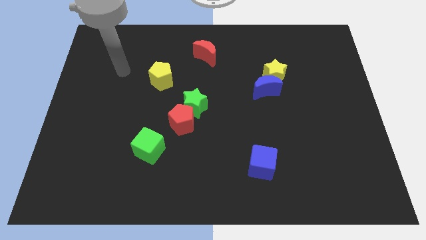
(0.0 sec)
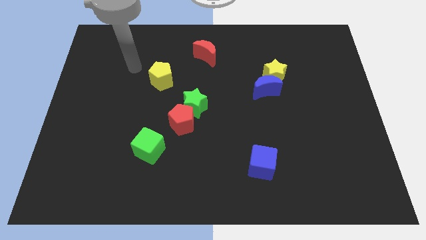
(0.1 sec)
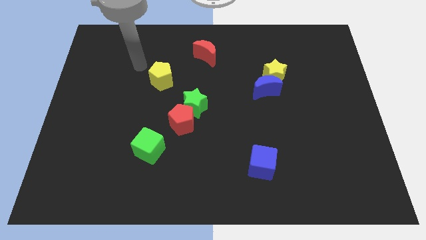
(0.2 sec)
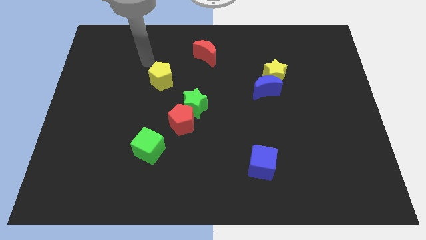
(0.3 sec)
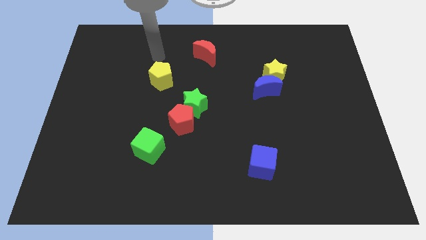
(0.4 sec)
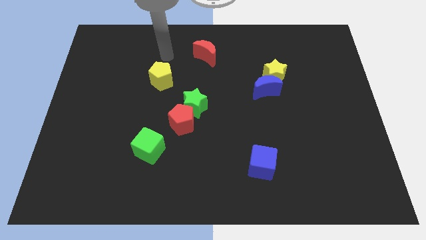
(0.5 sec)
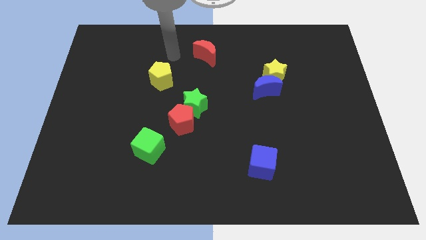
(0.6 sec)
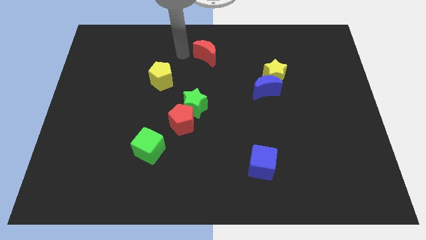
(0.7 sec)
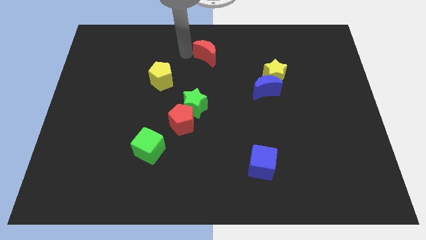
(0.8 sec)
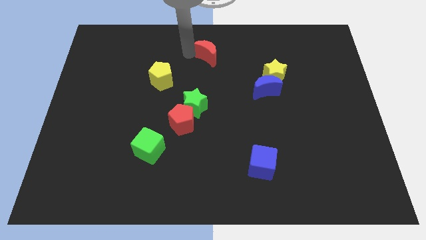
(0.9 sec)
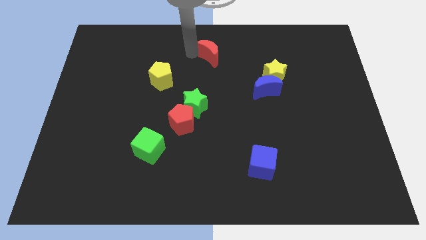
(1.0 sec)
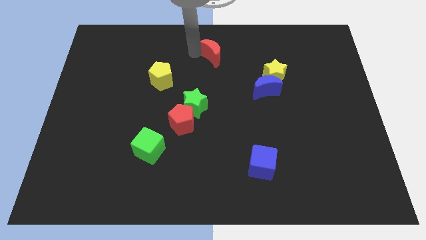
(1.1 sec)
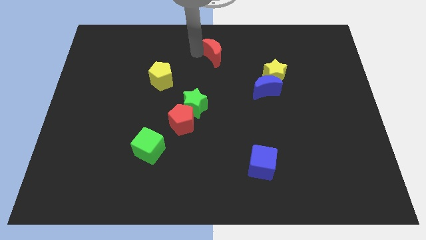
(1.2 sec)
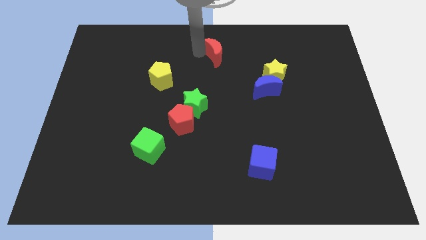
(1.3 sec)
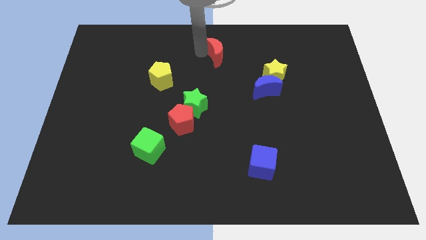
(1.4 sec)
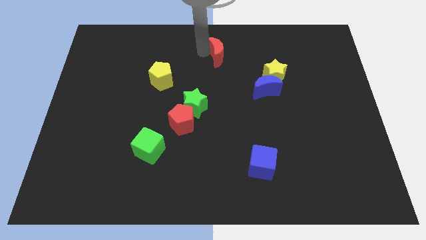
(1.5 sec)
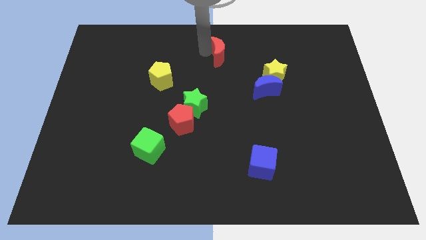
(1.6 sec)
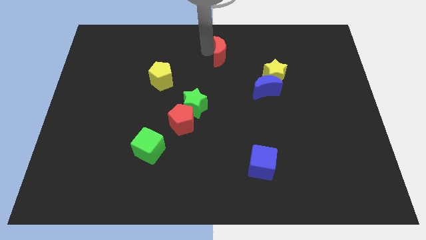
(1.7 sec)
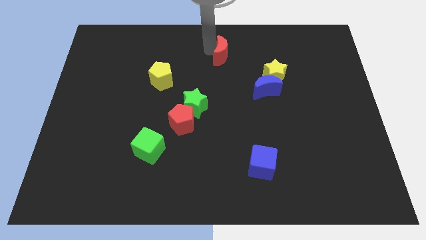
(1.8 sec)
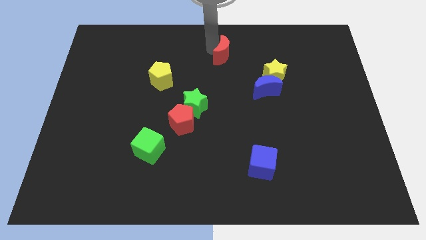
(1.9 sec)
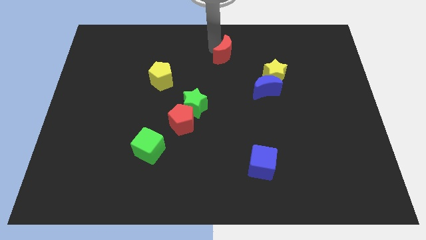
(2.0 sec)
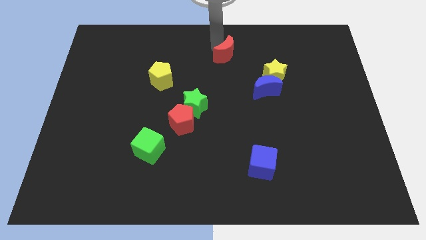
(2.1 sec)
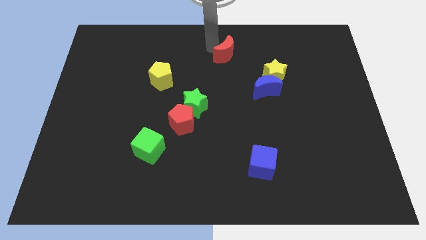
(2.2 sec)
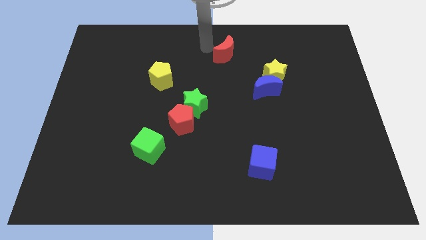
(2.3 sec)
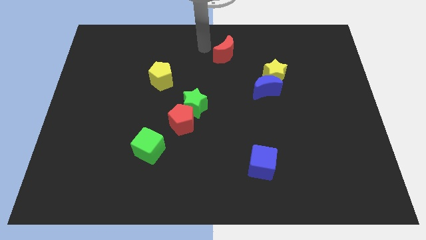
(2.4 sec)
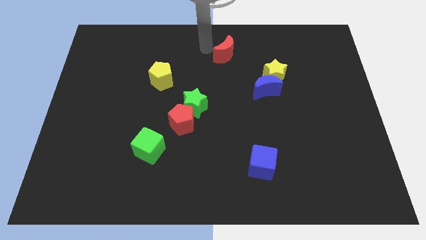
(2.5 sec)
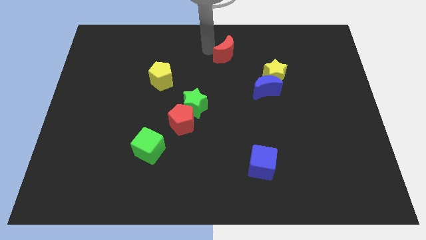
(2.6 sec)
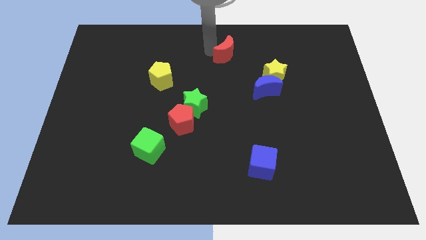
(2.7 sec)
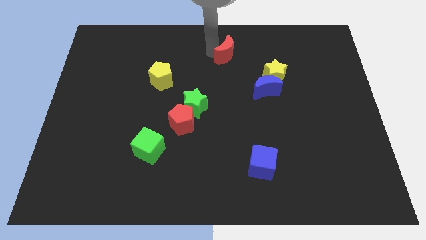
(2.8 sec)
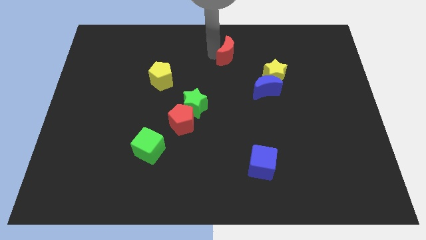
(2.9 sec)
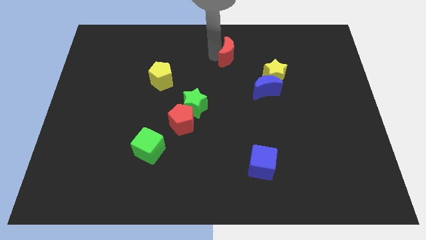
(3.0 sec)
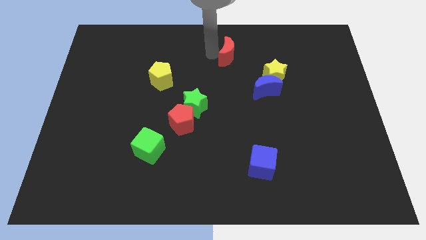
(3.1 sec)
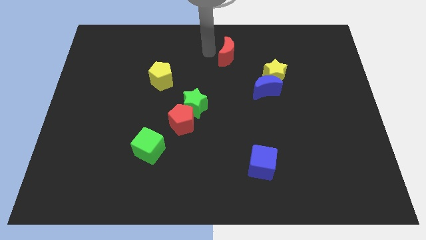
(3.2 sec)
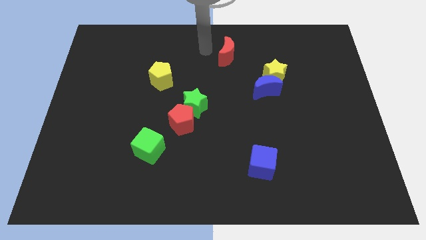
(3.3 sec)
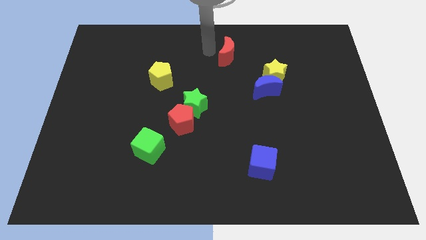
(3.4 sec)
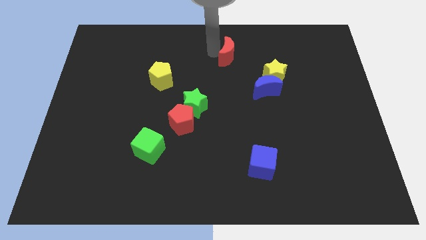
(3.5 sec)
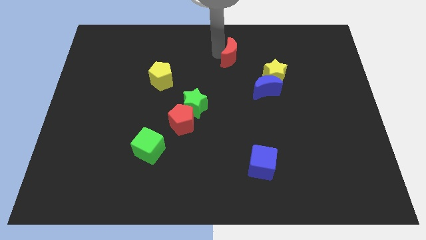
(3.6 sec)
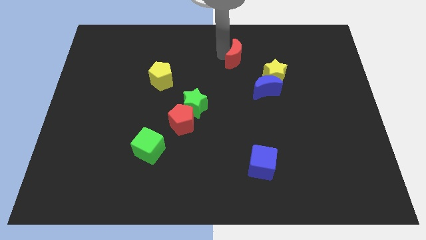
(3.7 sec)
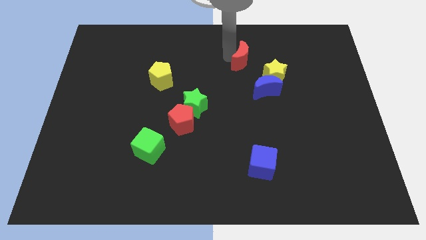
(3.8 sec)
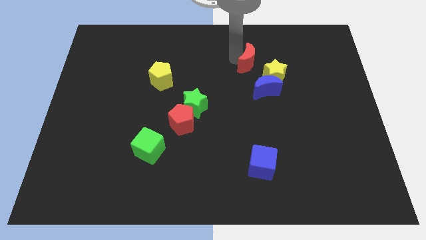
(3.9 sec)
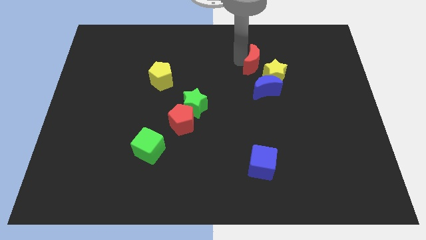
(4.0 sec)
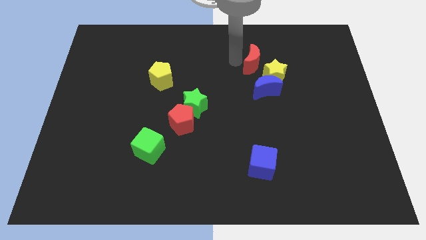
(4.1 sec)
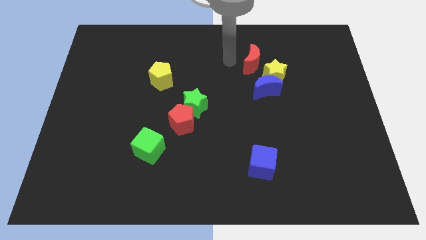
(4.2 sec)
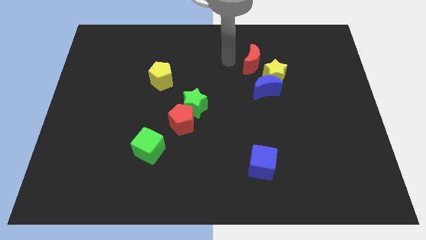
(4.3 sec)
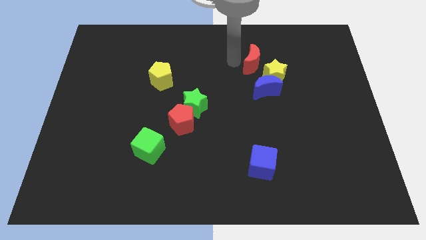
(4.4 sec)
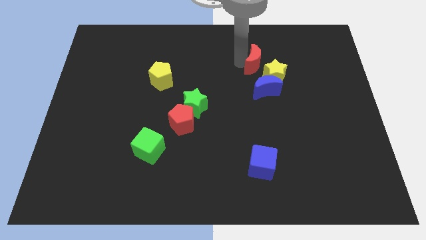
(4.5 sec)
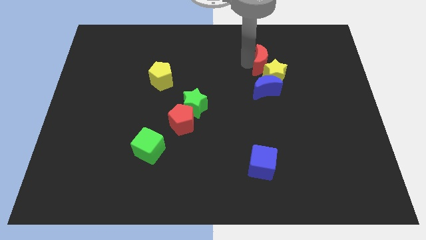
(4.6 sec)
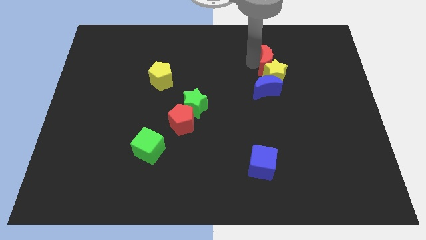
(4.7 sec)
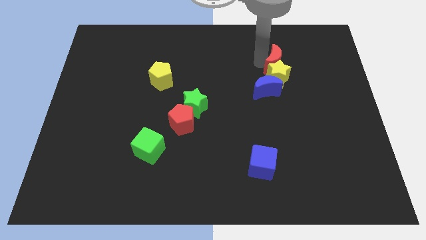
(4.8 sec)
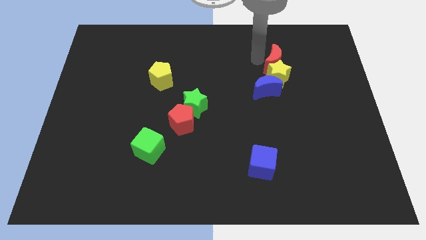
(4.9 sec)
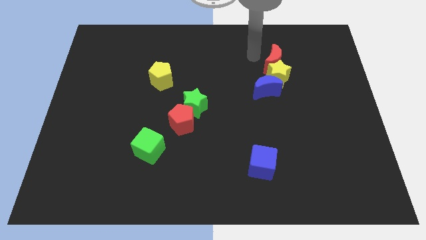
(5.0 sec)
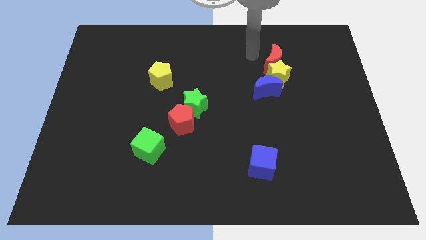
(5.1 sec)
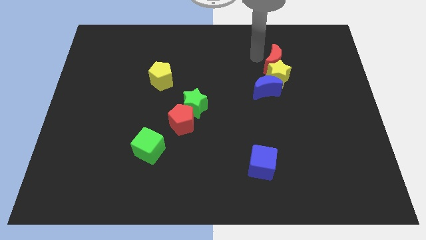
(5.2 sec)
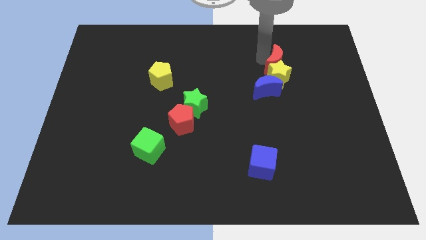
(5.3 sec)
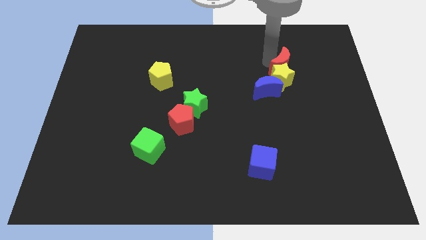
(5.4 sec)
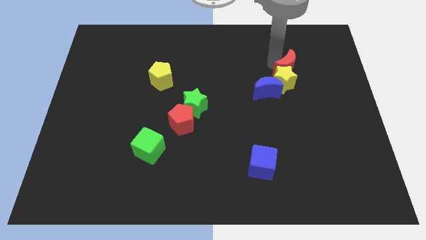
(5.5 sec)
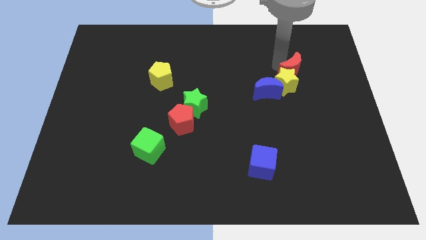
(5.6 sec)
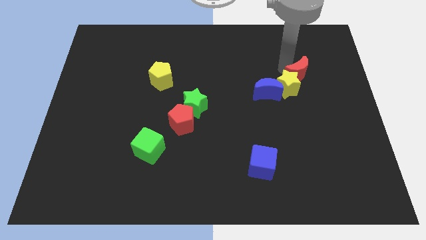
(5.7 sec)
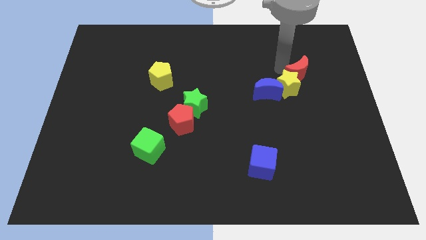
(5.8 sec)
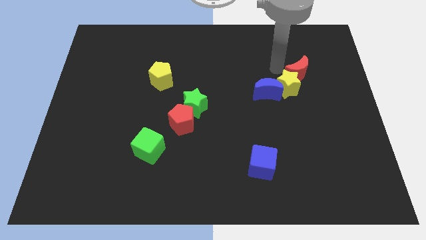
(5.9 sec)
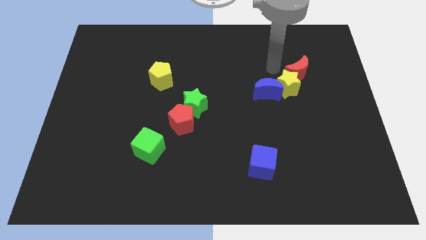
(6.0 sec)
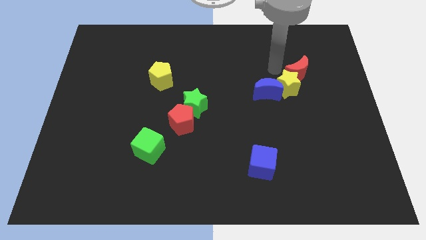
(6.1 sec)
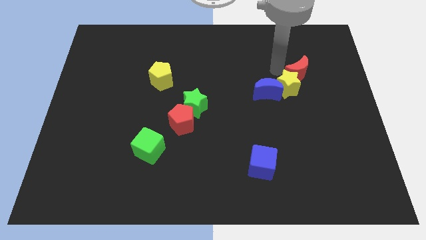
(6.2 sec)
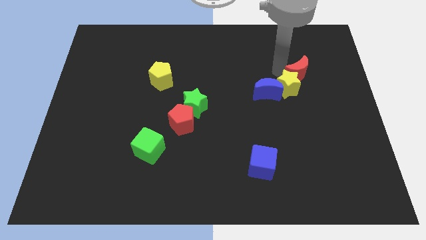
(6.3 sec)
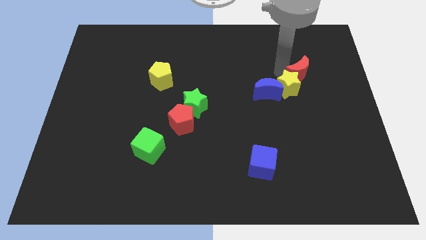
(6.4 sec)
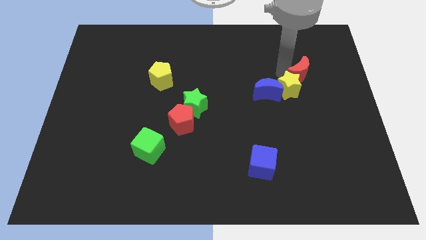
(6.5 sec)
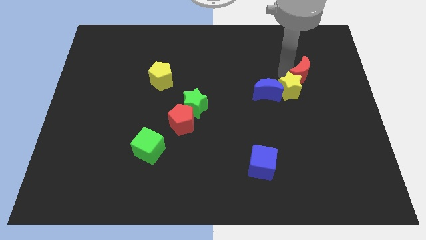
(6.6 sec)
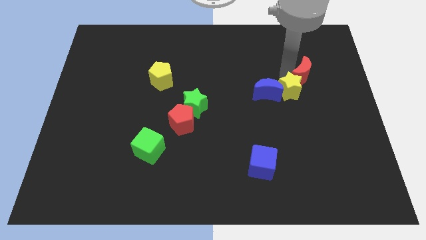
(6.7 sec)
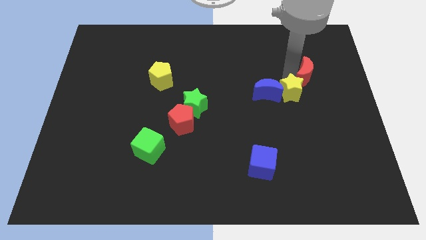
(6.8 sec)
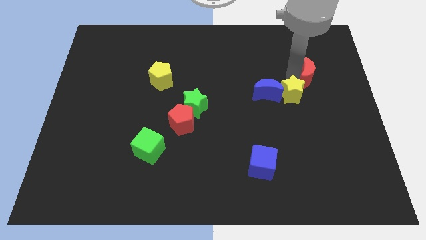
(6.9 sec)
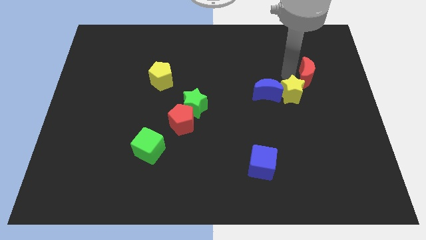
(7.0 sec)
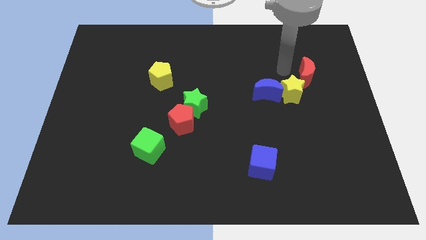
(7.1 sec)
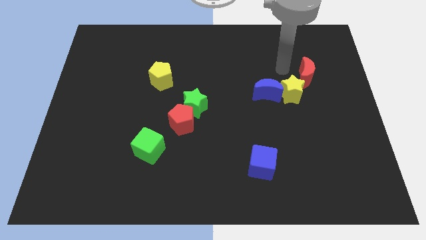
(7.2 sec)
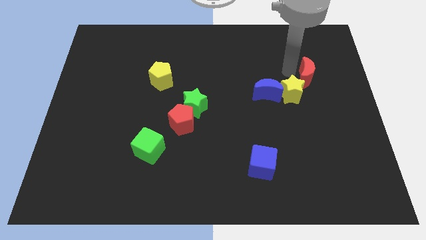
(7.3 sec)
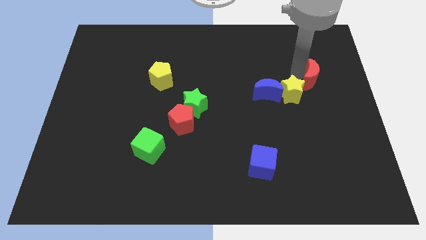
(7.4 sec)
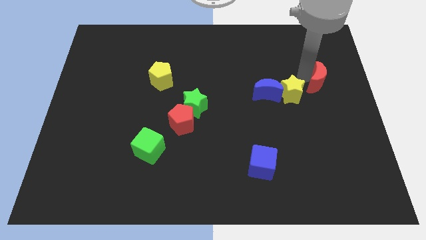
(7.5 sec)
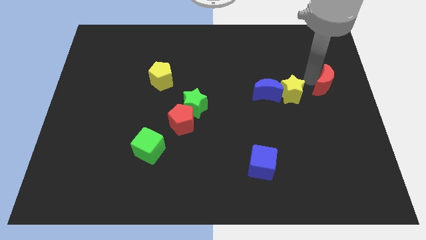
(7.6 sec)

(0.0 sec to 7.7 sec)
move the red moon to the right side of the board
